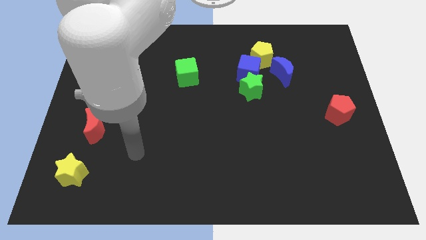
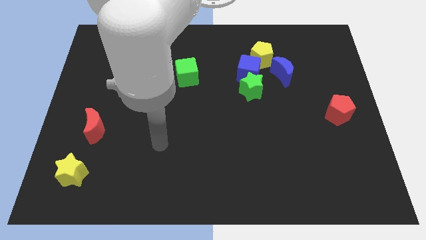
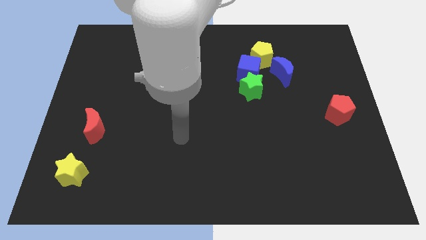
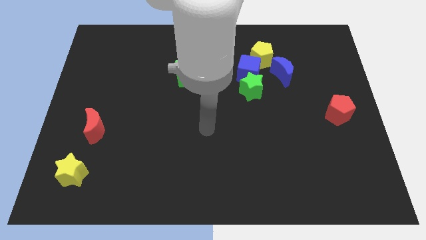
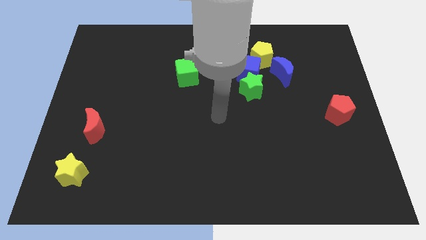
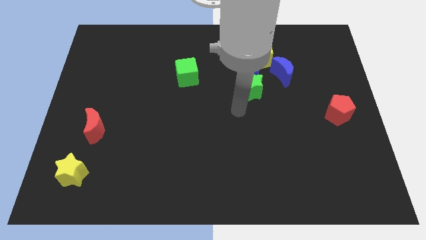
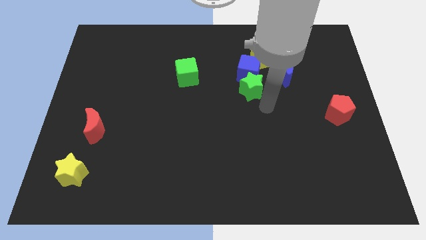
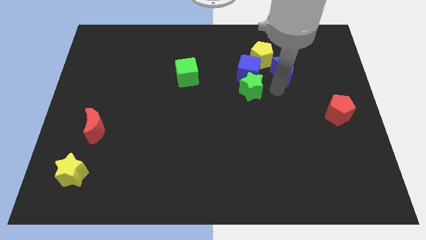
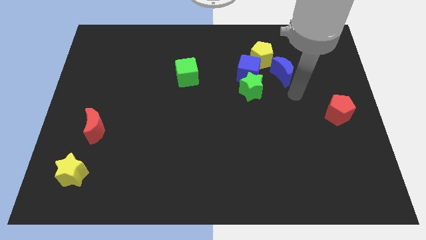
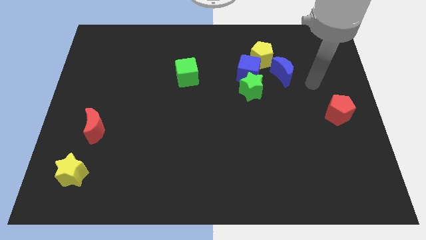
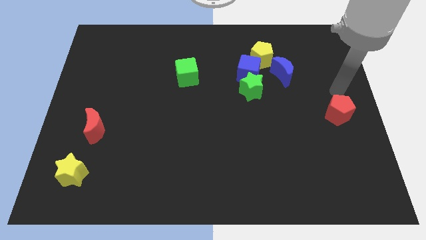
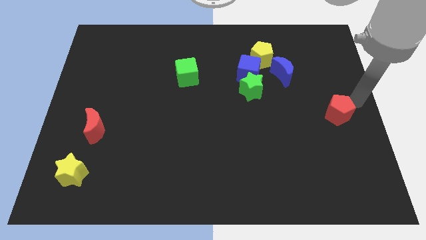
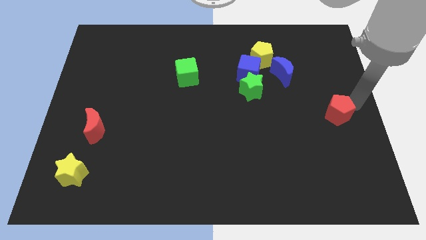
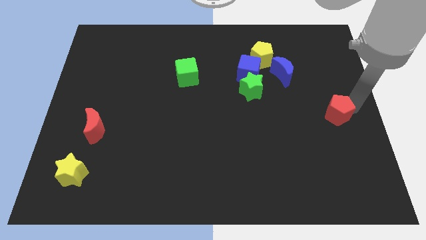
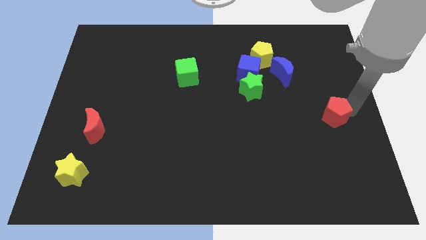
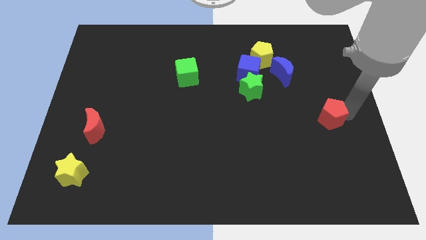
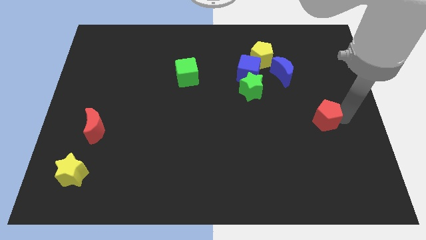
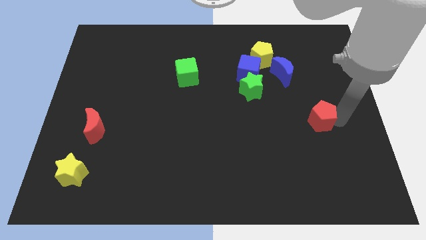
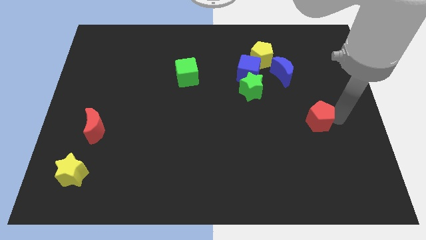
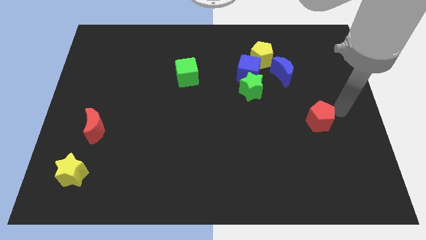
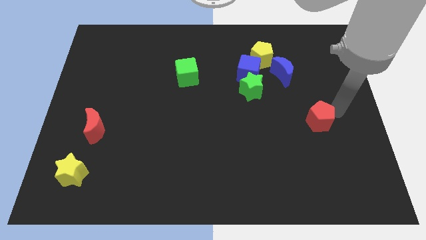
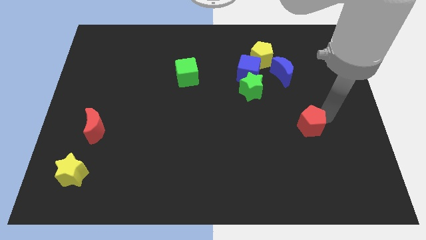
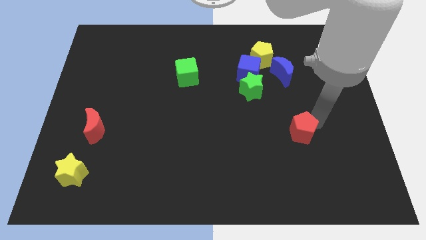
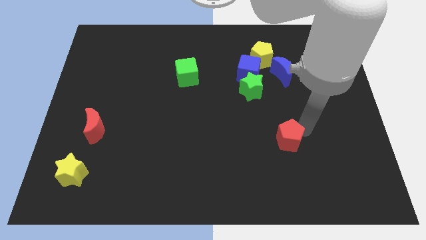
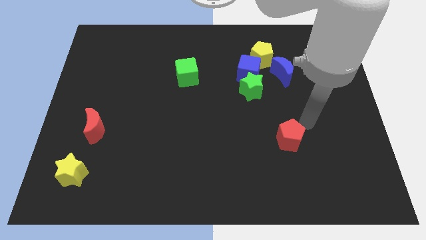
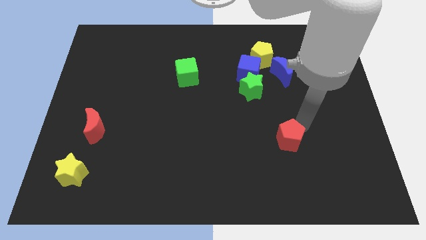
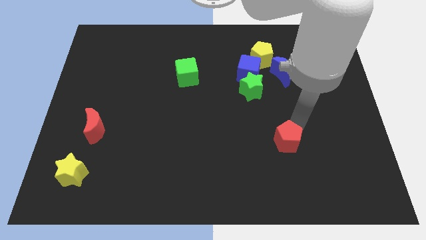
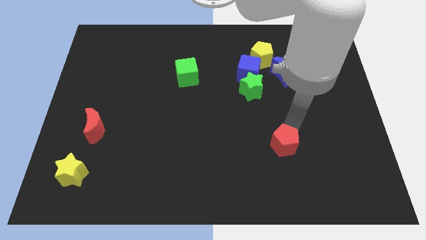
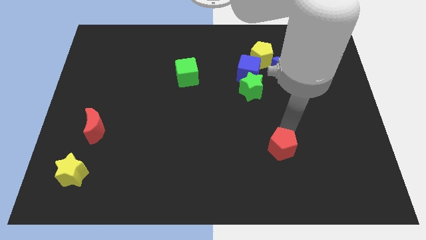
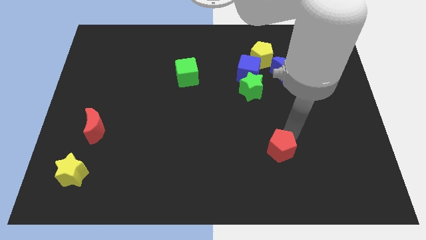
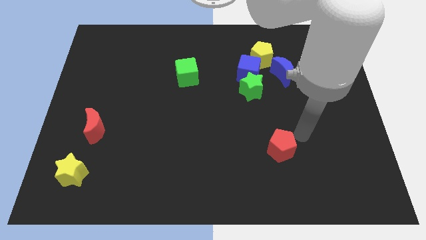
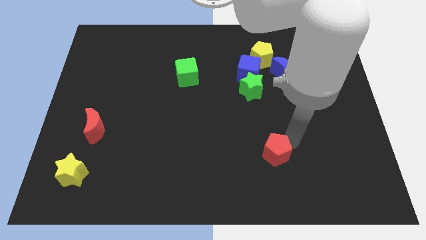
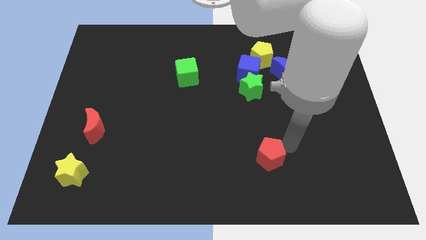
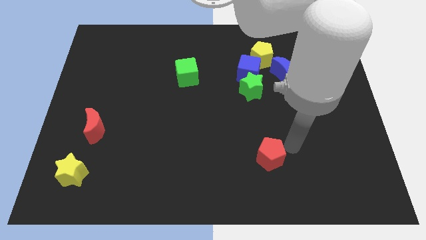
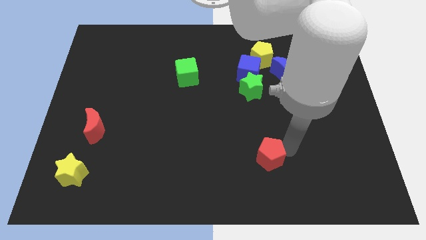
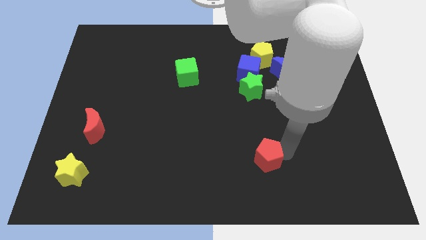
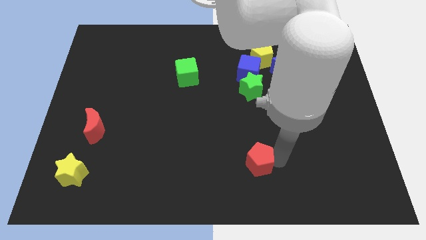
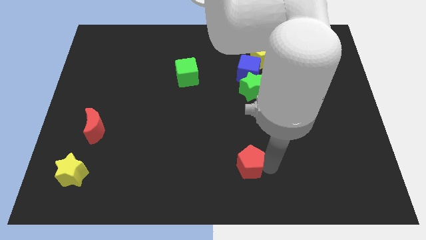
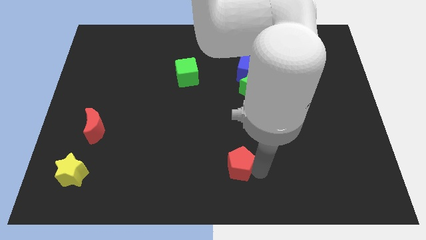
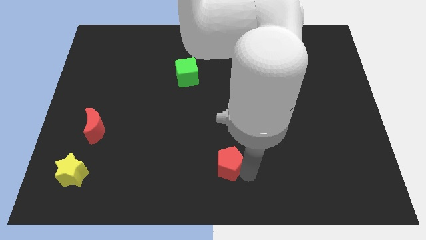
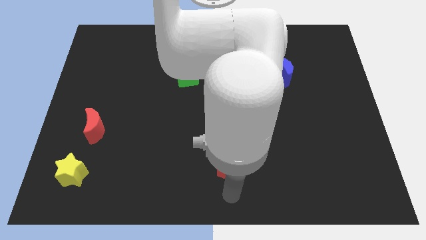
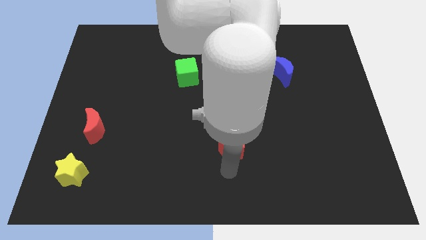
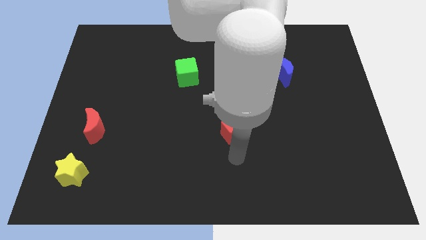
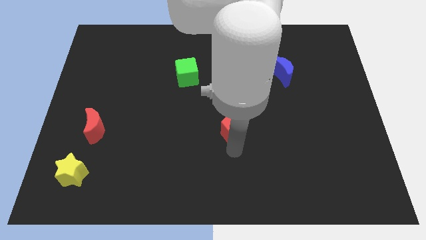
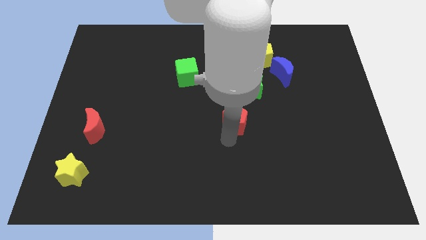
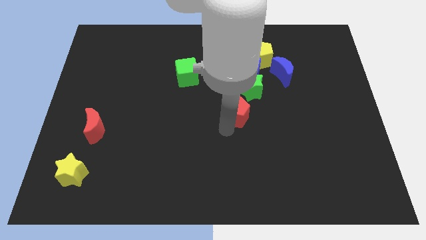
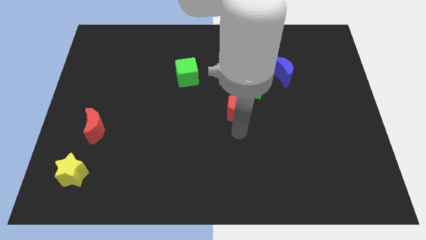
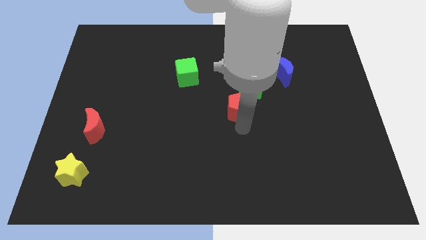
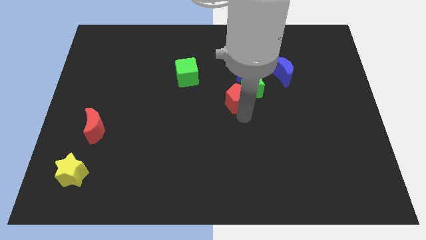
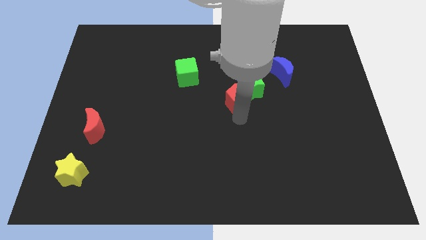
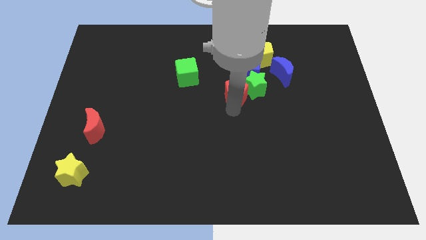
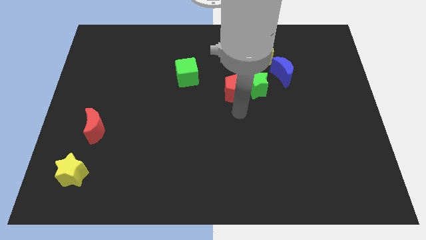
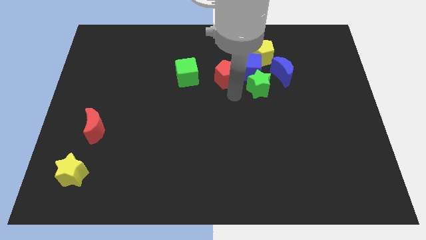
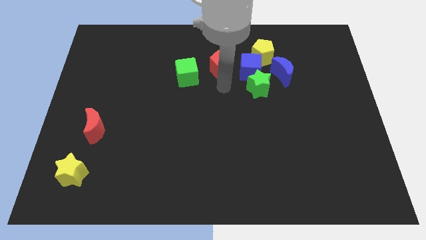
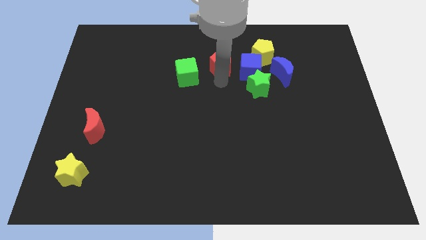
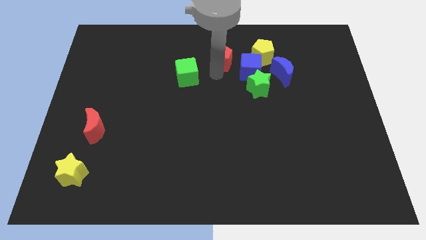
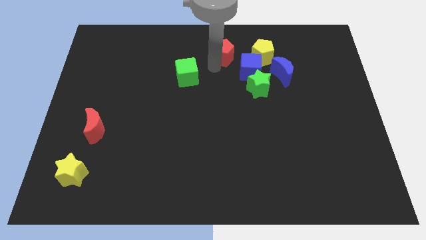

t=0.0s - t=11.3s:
push the red pentagon to the towards your base
